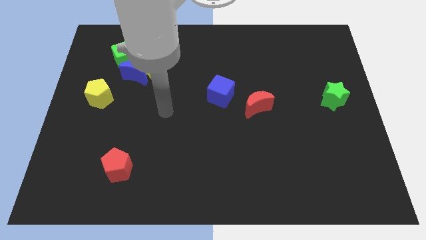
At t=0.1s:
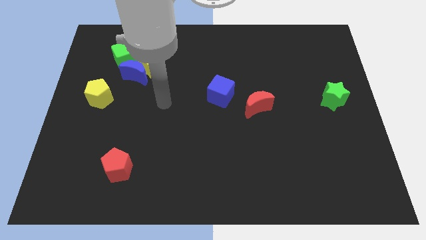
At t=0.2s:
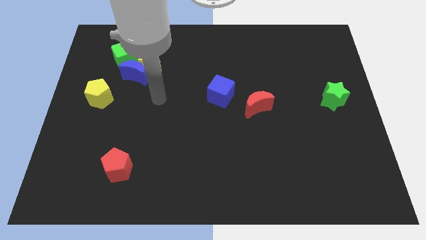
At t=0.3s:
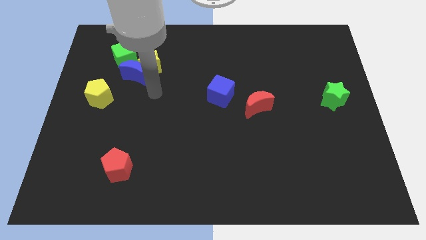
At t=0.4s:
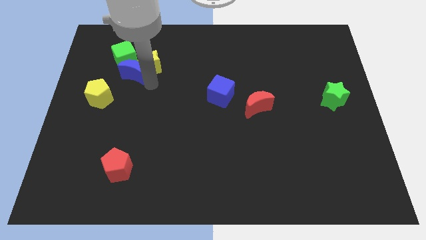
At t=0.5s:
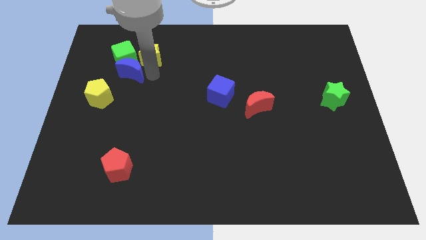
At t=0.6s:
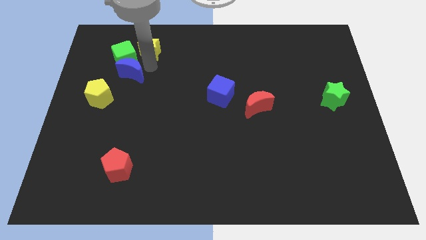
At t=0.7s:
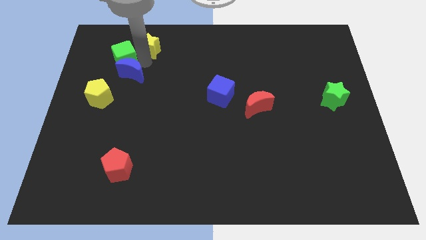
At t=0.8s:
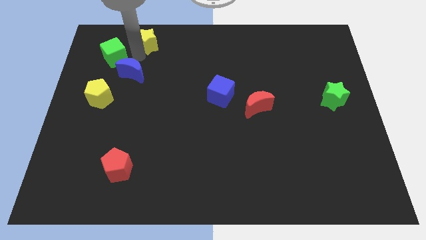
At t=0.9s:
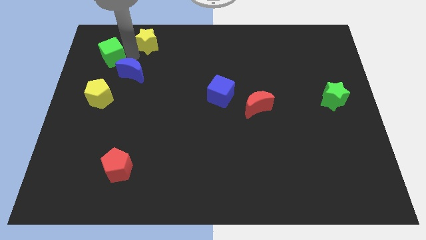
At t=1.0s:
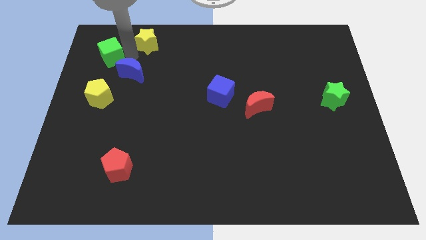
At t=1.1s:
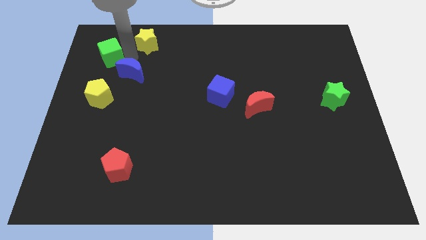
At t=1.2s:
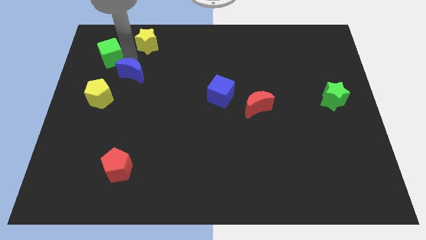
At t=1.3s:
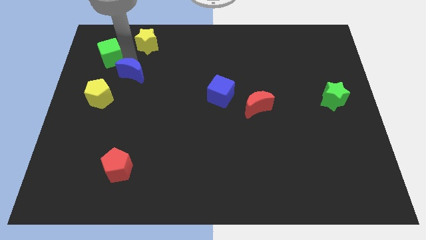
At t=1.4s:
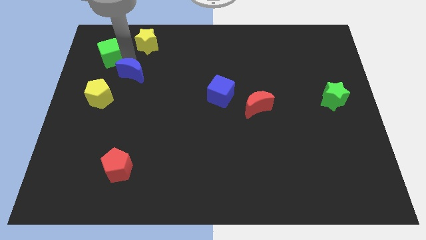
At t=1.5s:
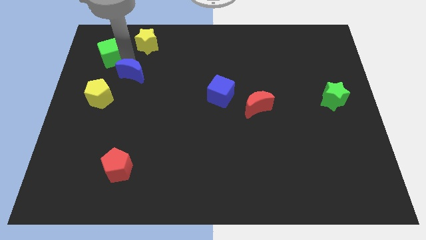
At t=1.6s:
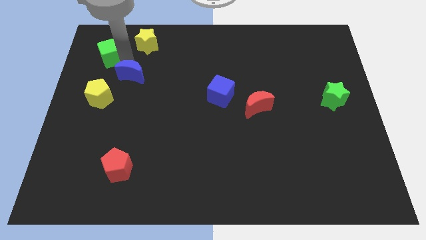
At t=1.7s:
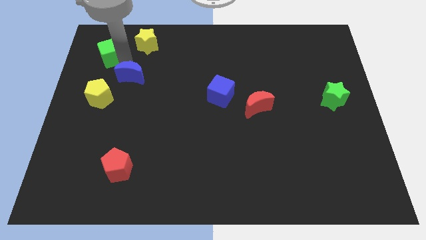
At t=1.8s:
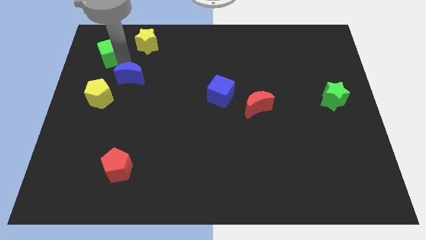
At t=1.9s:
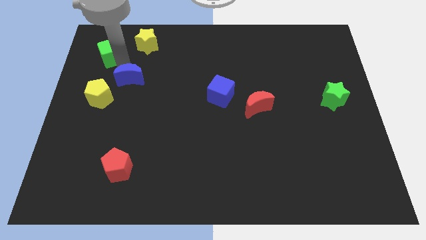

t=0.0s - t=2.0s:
pull the blue moon apart from the yellow star and green cube

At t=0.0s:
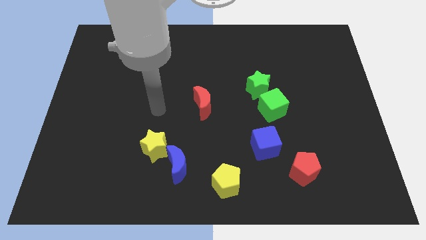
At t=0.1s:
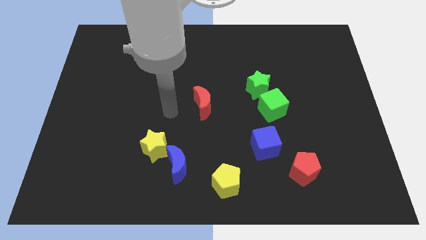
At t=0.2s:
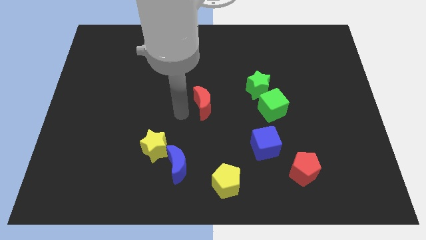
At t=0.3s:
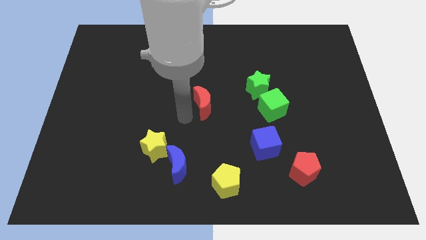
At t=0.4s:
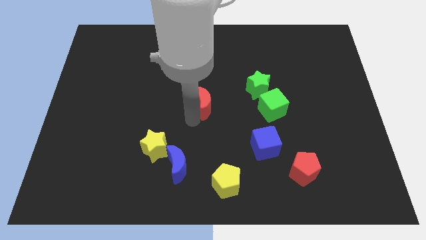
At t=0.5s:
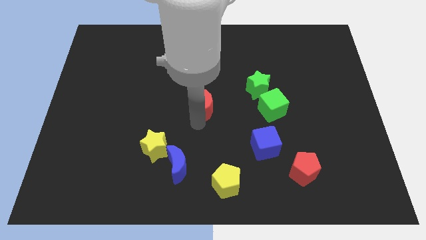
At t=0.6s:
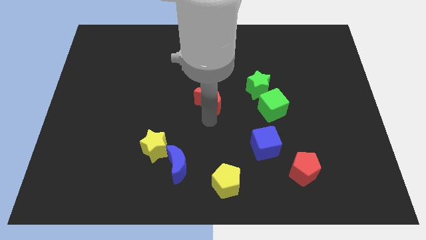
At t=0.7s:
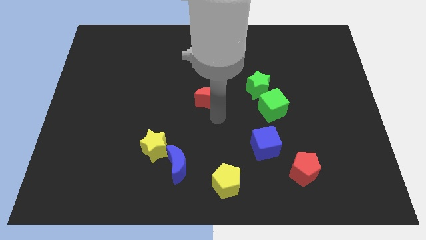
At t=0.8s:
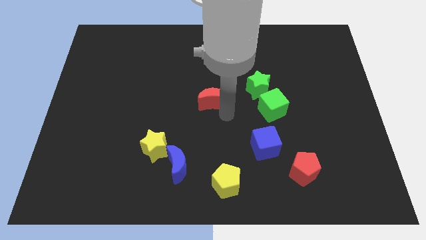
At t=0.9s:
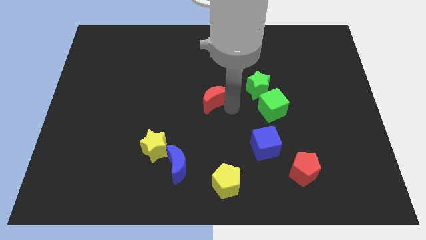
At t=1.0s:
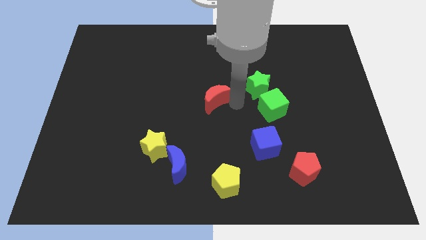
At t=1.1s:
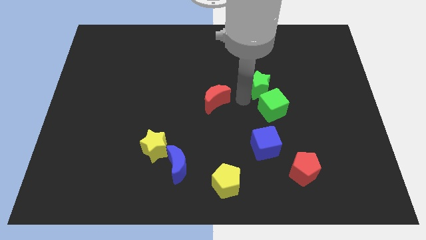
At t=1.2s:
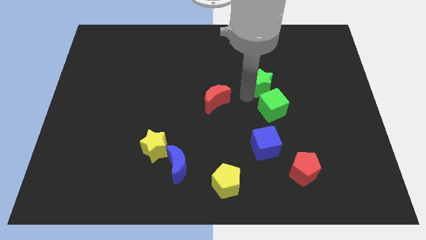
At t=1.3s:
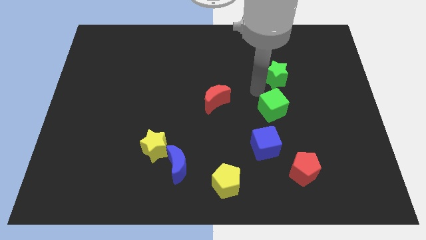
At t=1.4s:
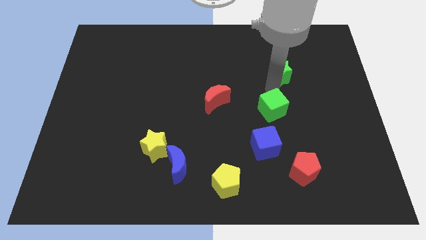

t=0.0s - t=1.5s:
move the green cube away from the green star

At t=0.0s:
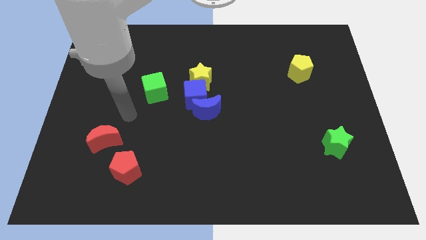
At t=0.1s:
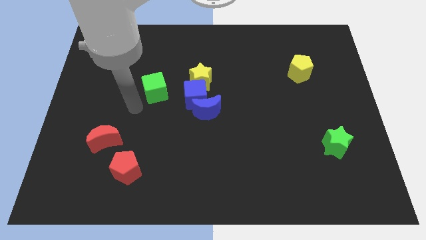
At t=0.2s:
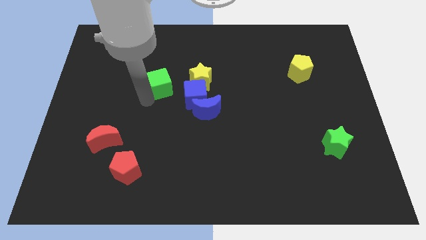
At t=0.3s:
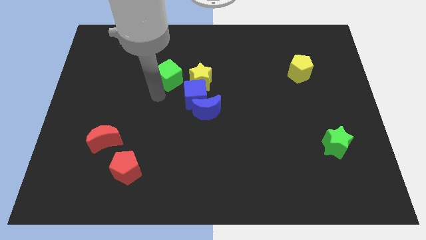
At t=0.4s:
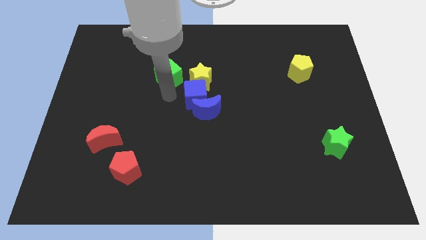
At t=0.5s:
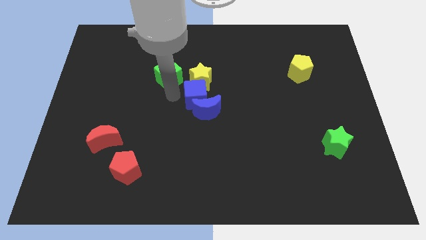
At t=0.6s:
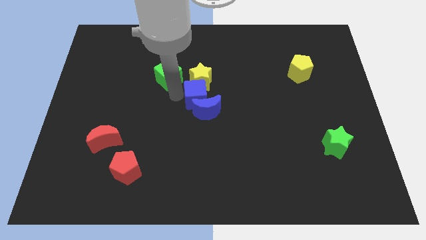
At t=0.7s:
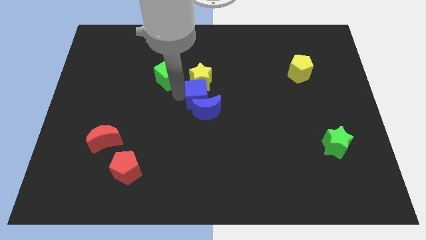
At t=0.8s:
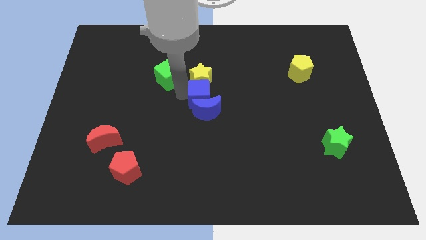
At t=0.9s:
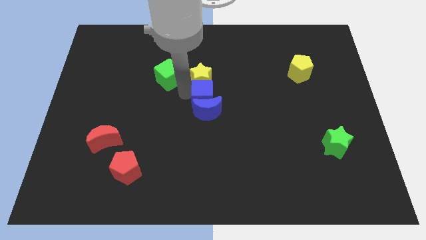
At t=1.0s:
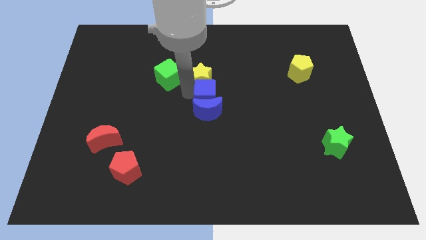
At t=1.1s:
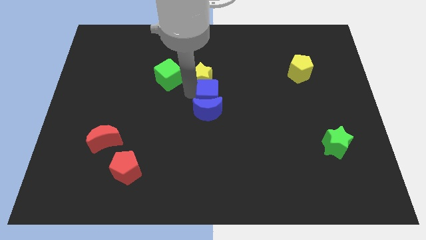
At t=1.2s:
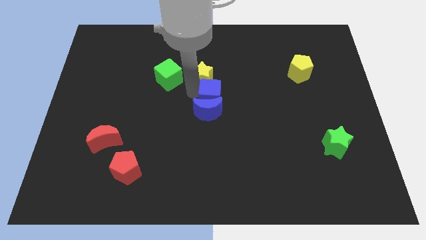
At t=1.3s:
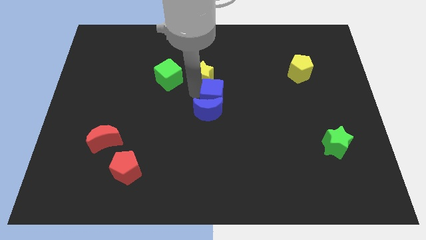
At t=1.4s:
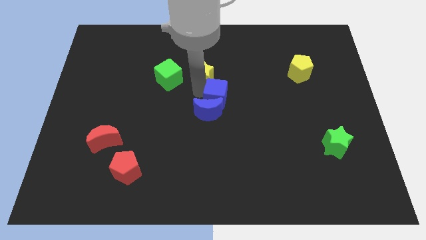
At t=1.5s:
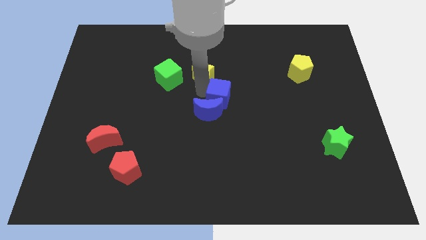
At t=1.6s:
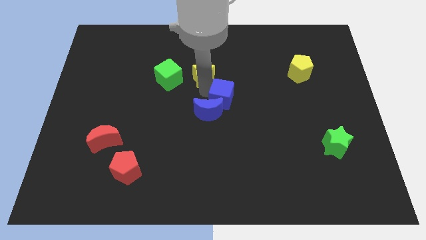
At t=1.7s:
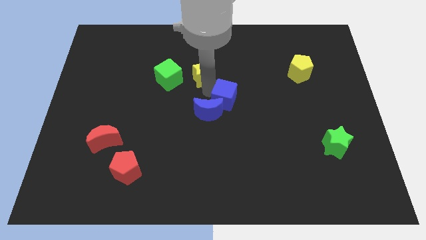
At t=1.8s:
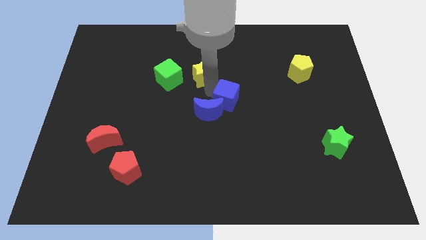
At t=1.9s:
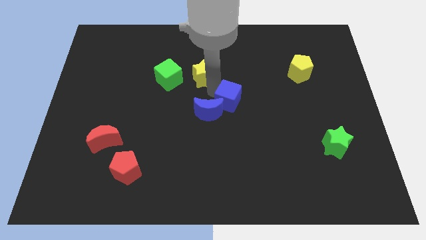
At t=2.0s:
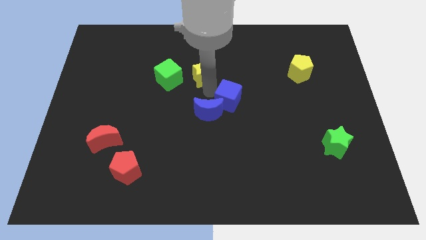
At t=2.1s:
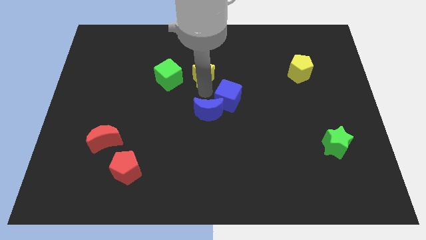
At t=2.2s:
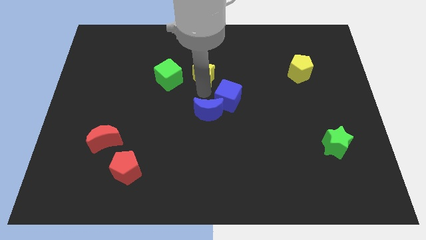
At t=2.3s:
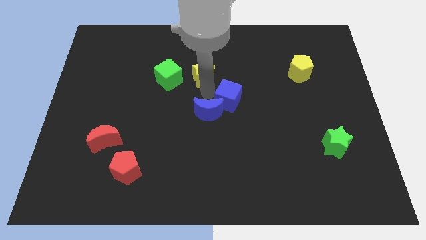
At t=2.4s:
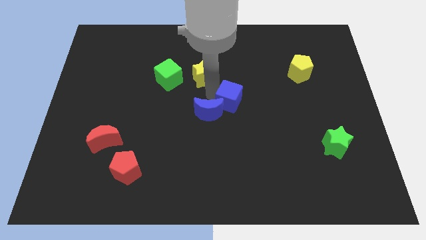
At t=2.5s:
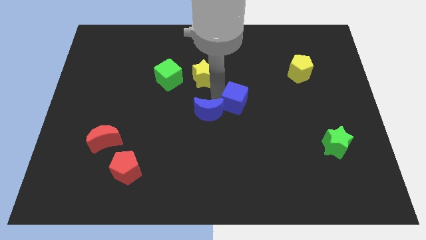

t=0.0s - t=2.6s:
pull the blue cube apart from the blue moon, yellow star, and green cube

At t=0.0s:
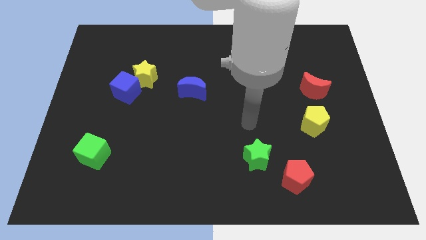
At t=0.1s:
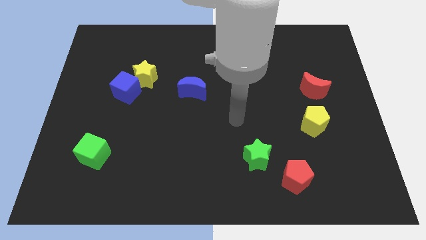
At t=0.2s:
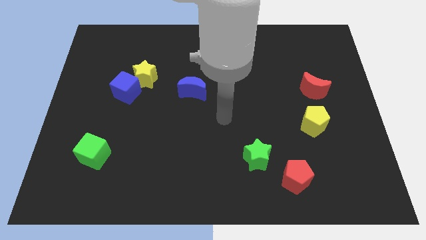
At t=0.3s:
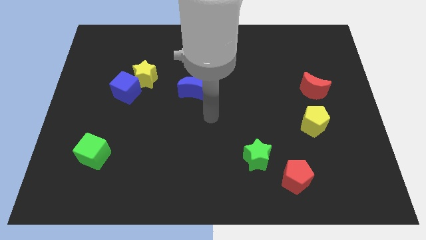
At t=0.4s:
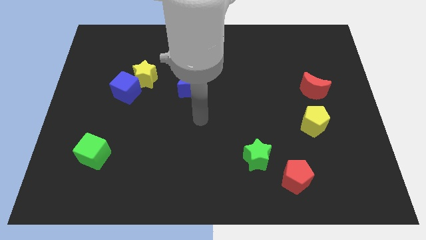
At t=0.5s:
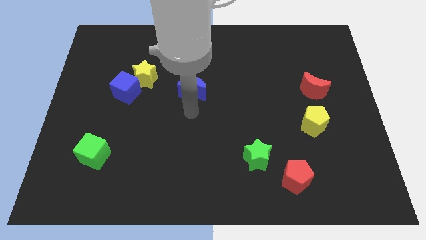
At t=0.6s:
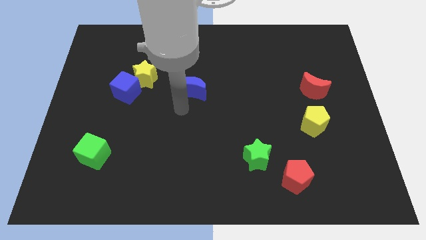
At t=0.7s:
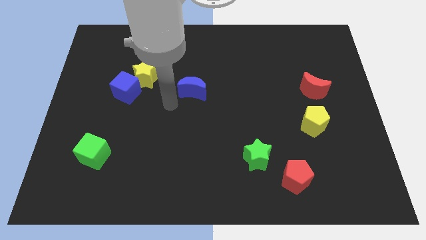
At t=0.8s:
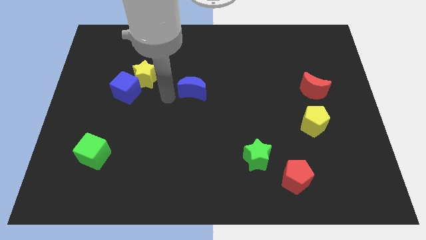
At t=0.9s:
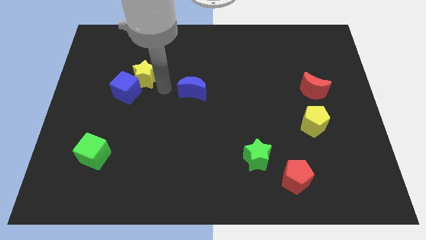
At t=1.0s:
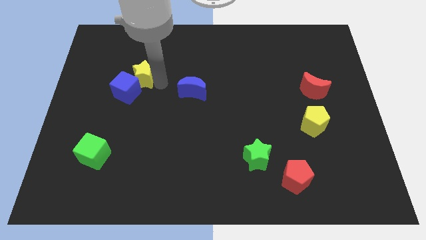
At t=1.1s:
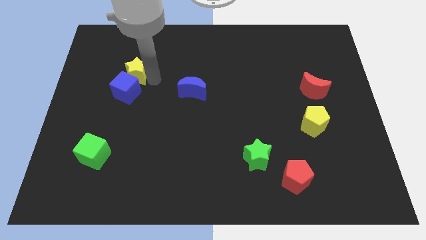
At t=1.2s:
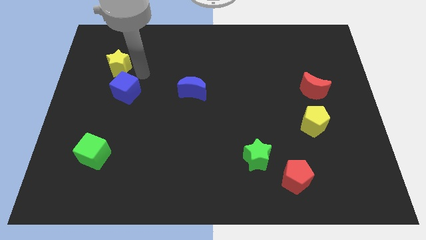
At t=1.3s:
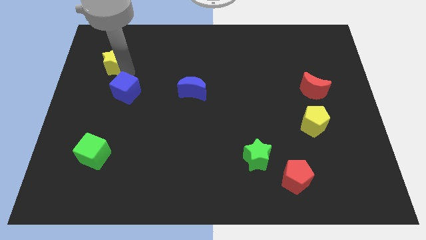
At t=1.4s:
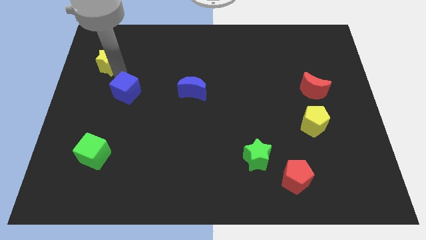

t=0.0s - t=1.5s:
move the blue cube away from the yellow star

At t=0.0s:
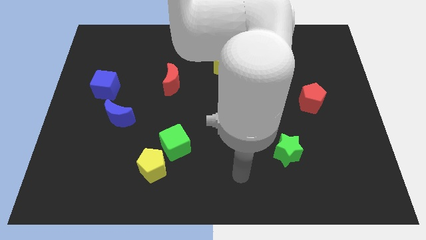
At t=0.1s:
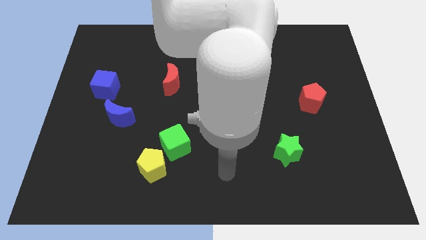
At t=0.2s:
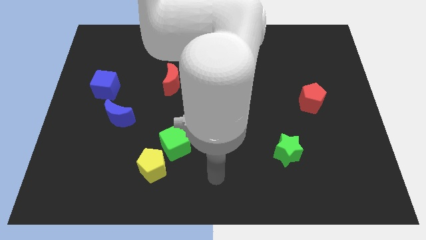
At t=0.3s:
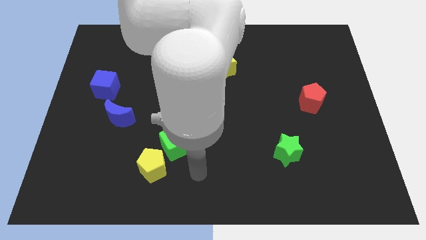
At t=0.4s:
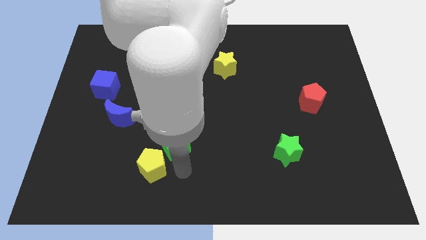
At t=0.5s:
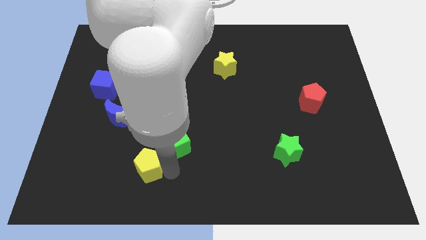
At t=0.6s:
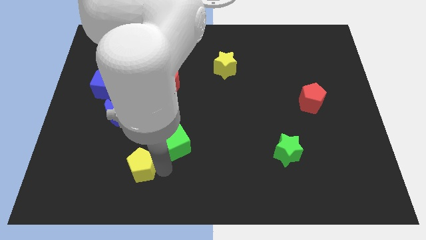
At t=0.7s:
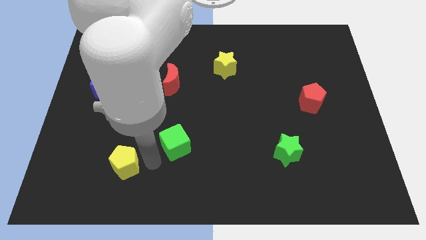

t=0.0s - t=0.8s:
move the green cube away from the yellow pentagon

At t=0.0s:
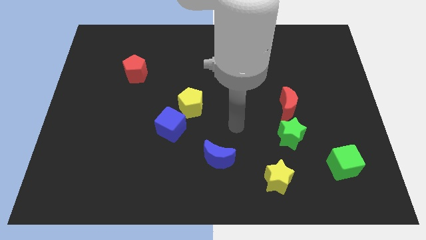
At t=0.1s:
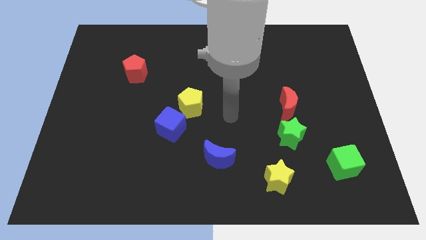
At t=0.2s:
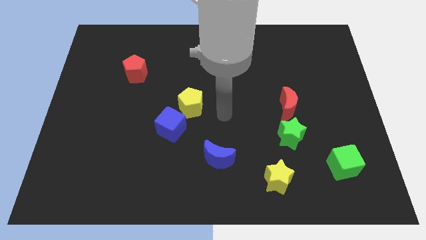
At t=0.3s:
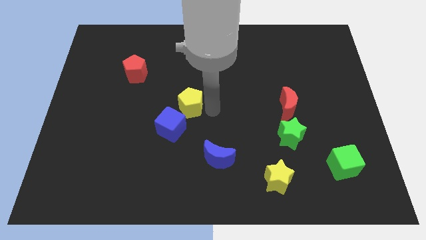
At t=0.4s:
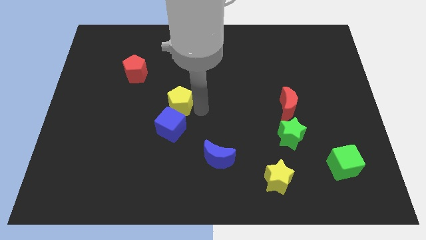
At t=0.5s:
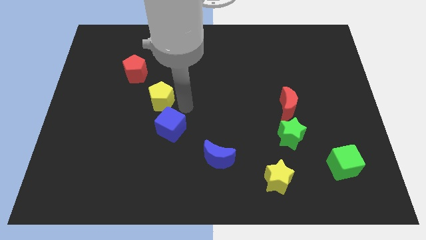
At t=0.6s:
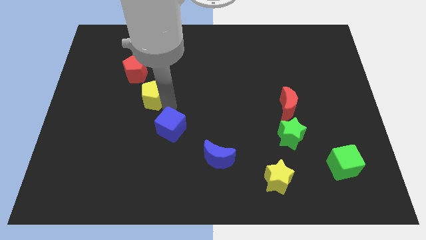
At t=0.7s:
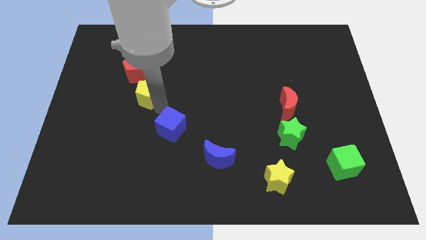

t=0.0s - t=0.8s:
pull the blue cube apart from the yellow pentagon

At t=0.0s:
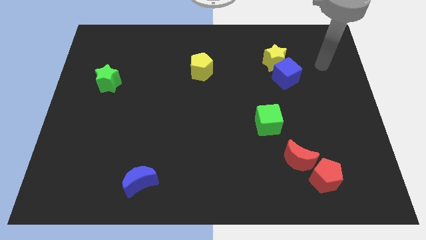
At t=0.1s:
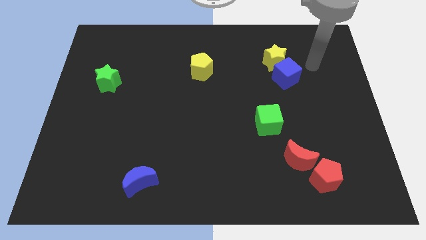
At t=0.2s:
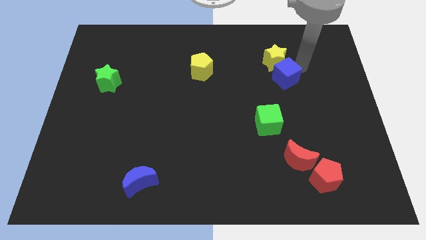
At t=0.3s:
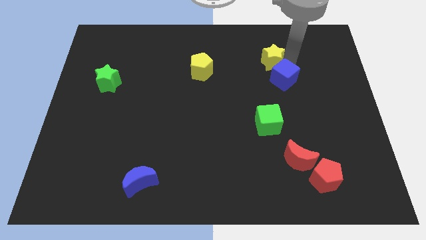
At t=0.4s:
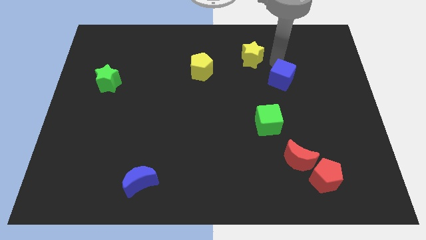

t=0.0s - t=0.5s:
separate the blue cube from the yellow star
